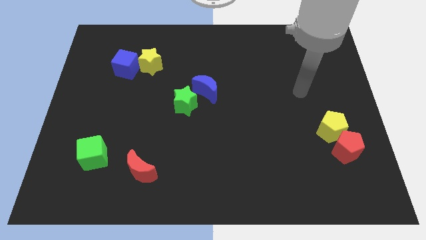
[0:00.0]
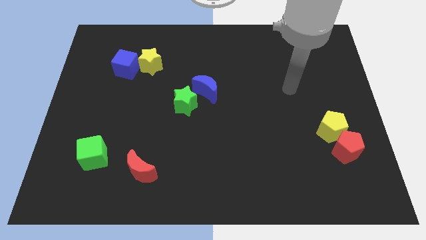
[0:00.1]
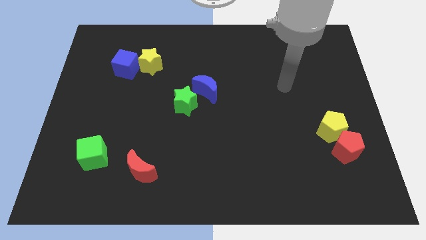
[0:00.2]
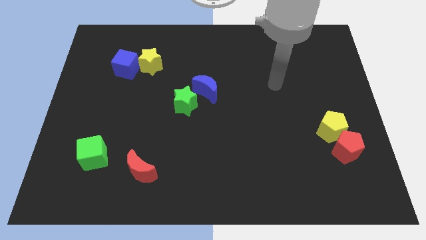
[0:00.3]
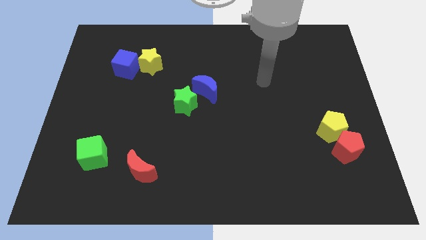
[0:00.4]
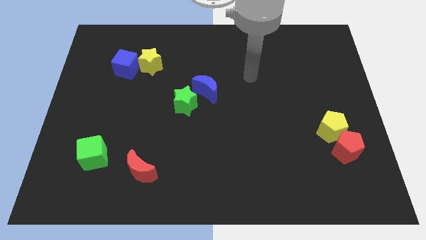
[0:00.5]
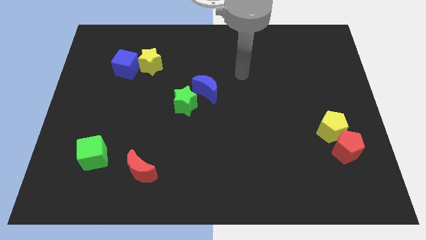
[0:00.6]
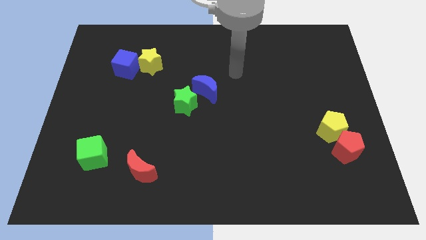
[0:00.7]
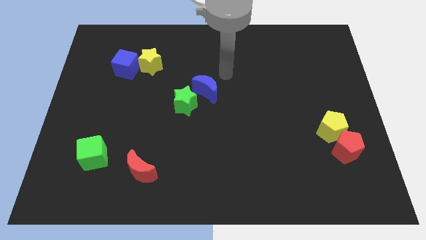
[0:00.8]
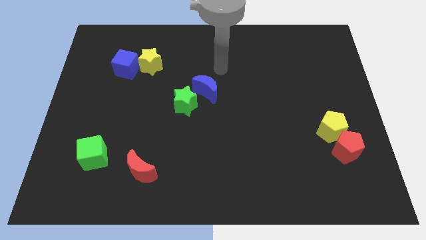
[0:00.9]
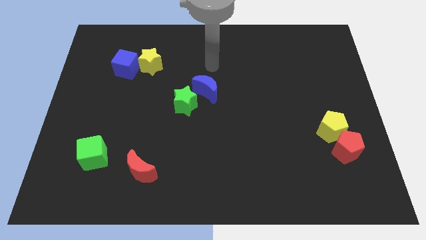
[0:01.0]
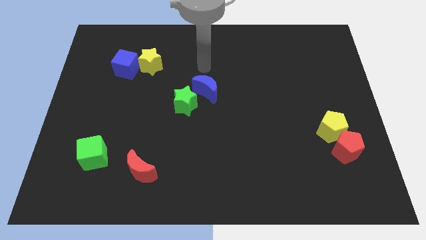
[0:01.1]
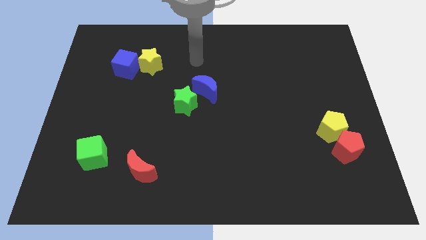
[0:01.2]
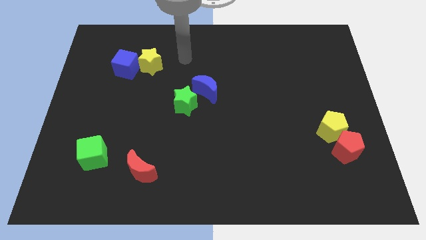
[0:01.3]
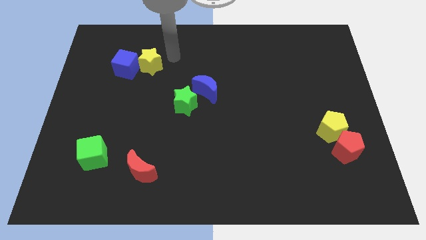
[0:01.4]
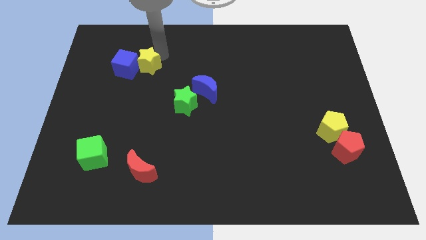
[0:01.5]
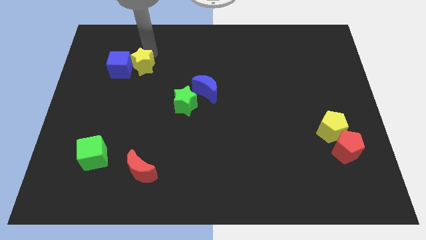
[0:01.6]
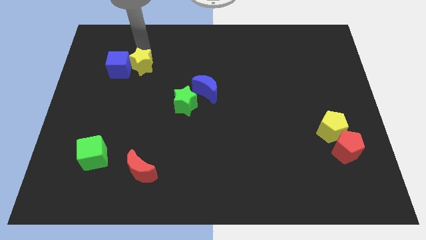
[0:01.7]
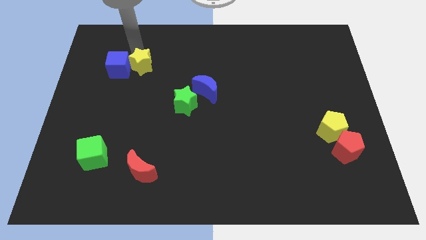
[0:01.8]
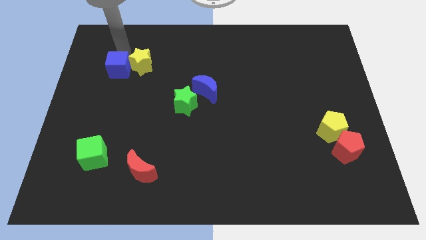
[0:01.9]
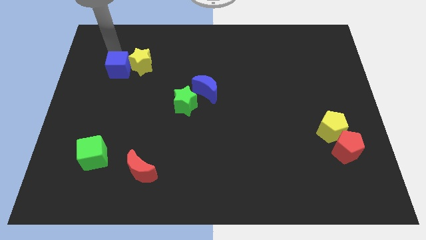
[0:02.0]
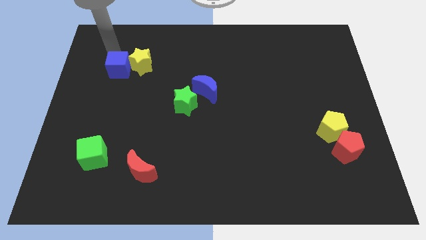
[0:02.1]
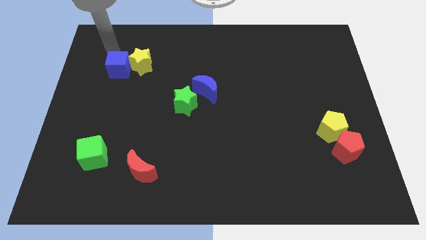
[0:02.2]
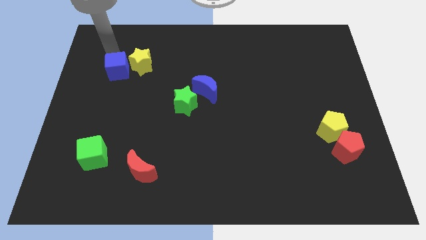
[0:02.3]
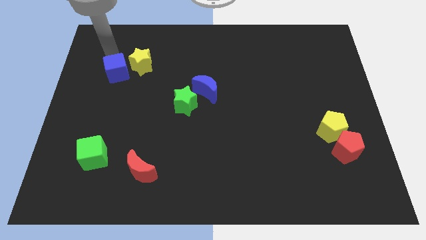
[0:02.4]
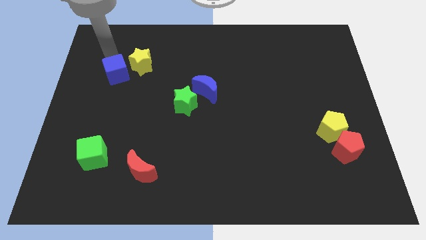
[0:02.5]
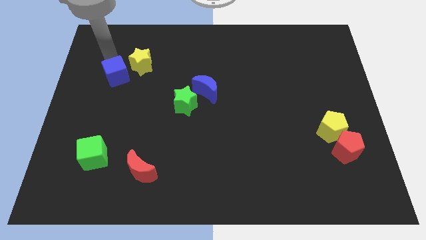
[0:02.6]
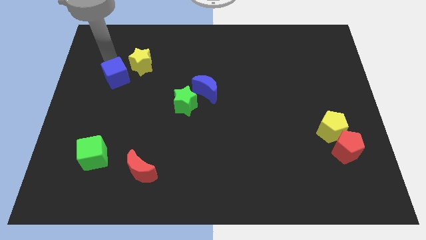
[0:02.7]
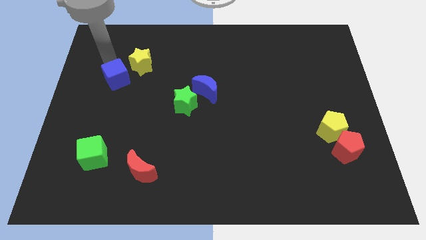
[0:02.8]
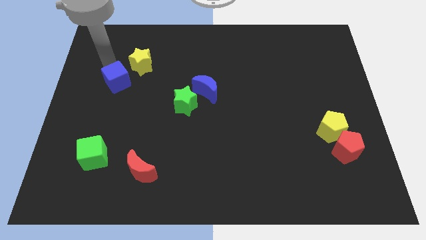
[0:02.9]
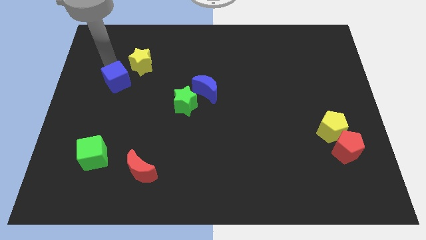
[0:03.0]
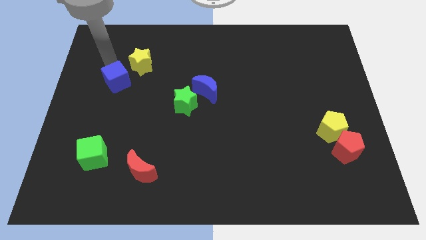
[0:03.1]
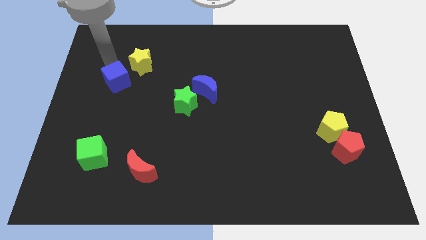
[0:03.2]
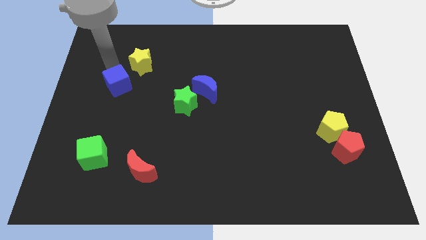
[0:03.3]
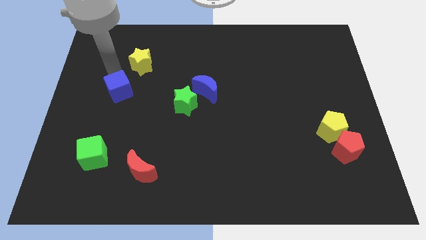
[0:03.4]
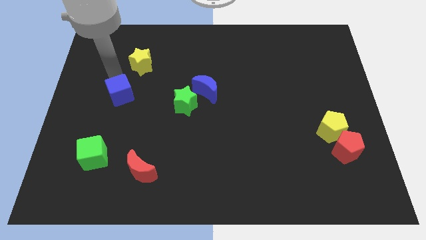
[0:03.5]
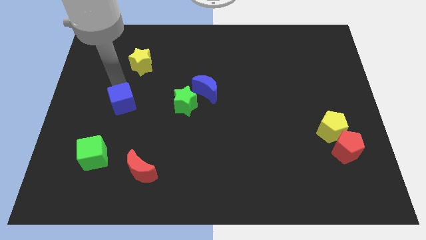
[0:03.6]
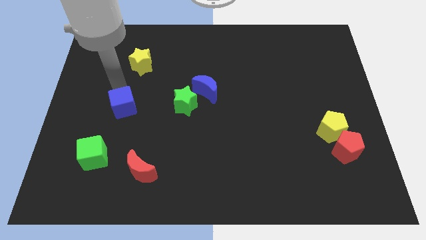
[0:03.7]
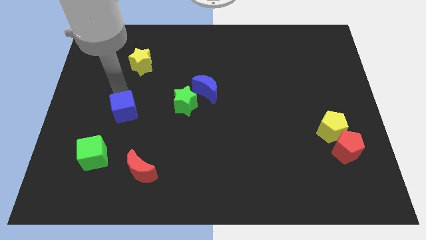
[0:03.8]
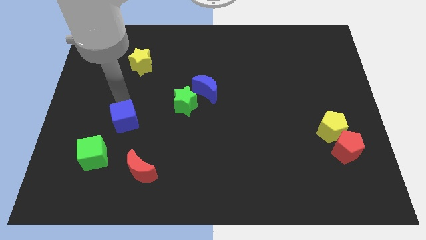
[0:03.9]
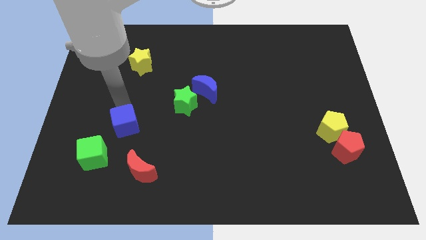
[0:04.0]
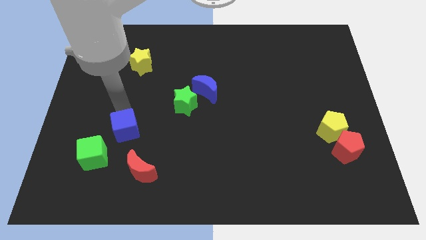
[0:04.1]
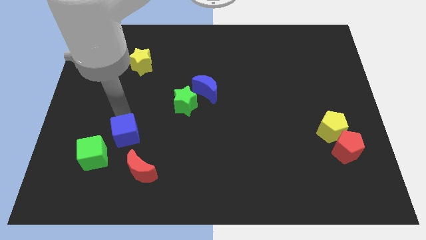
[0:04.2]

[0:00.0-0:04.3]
move the blue cube down

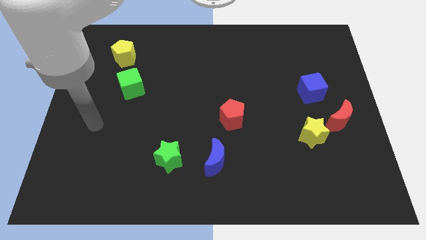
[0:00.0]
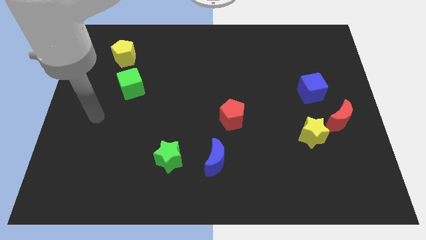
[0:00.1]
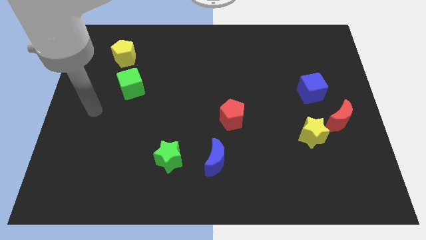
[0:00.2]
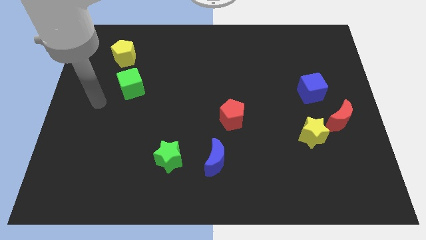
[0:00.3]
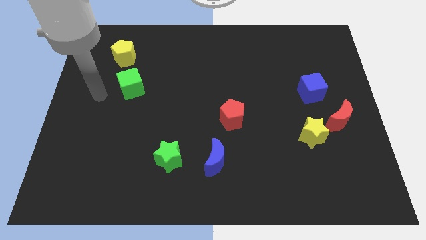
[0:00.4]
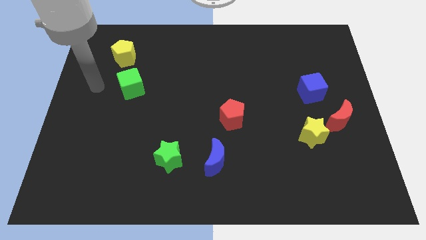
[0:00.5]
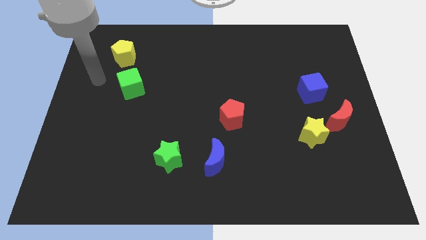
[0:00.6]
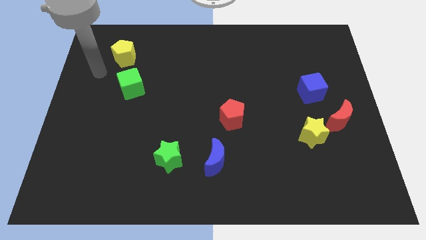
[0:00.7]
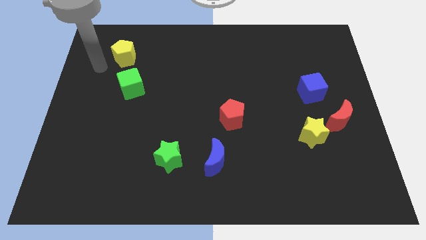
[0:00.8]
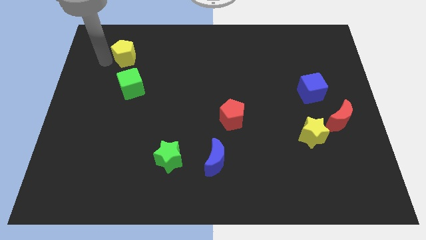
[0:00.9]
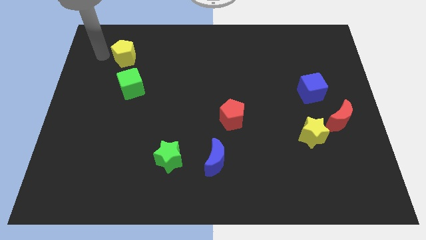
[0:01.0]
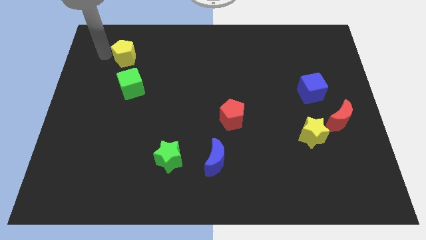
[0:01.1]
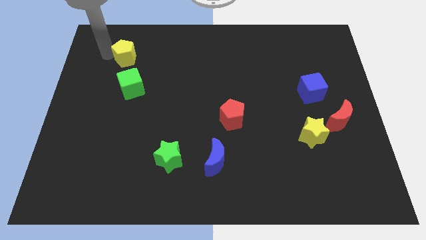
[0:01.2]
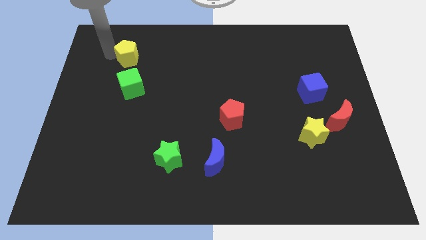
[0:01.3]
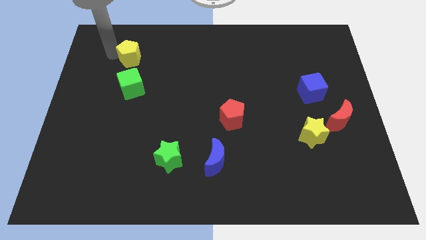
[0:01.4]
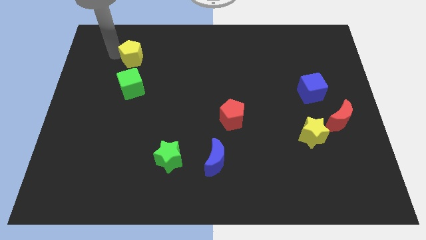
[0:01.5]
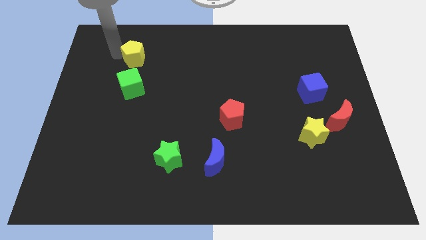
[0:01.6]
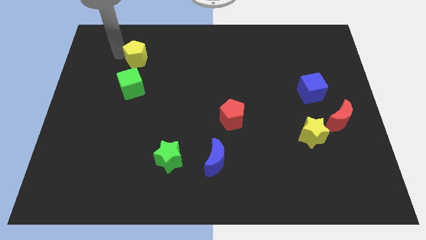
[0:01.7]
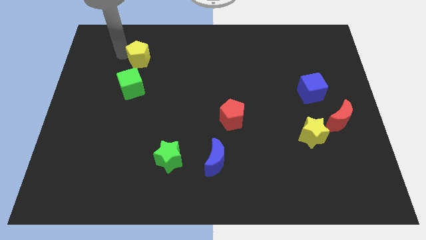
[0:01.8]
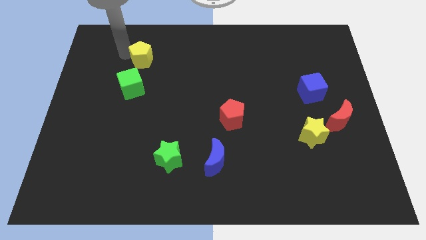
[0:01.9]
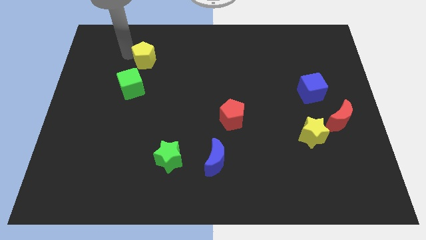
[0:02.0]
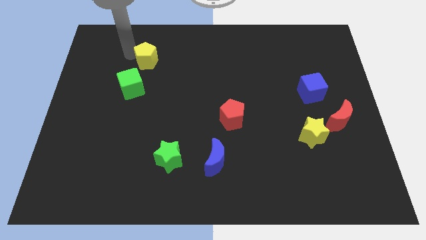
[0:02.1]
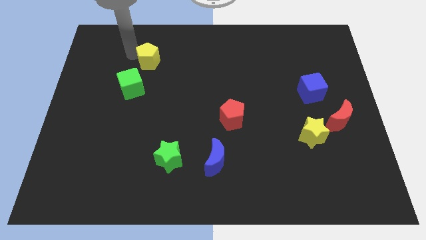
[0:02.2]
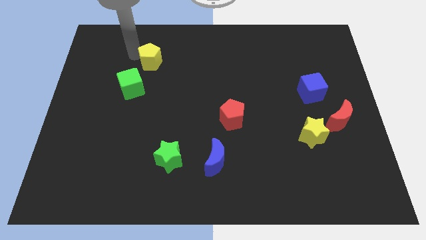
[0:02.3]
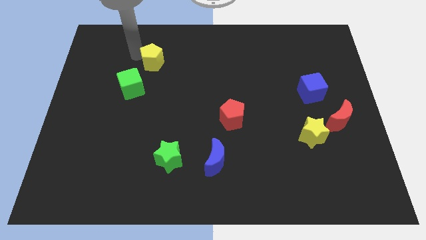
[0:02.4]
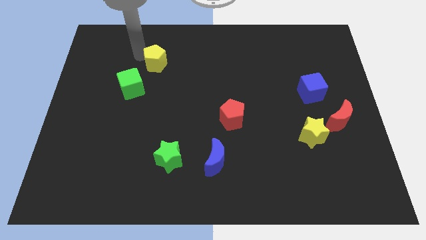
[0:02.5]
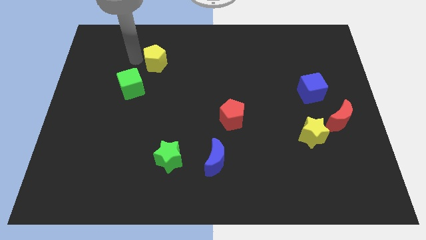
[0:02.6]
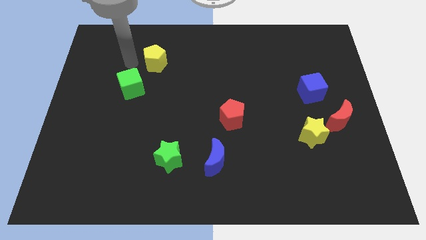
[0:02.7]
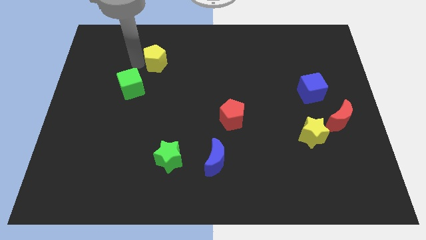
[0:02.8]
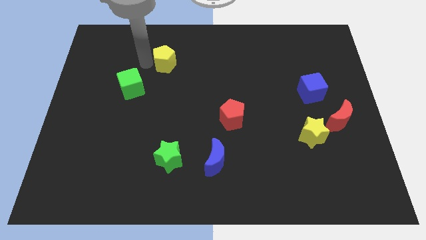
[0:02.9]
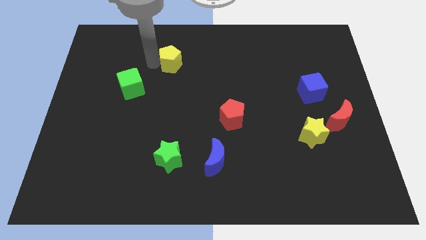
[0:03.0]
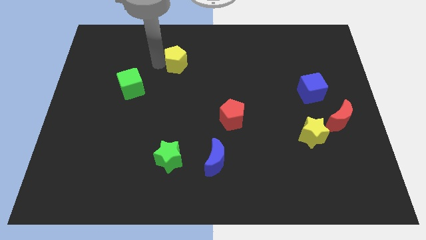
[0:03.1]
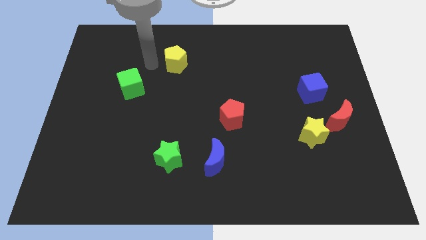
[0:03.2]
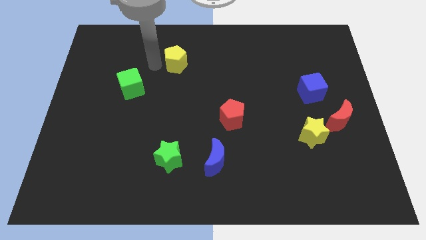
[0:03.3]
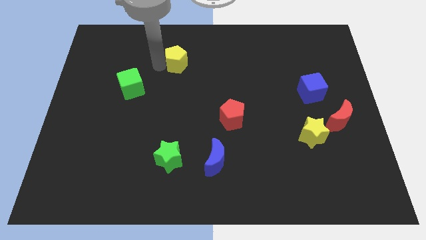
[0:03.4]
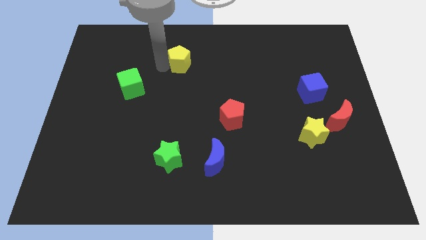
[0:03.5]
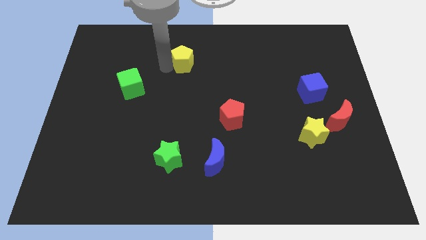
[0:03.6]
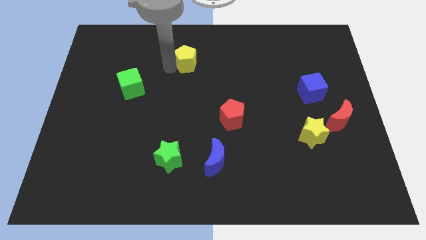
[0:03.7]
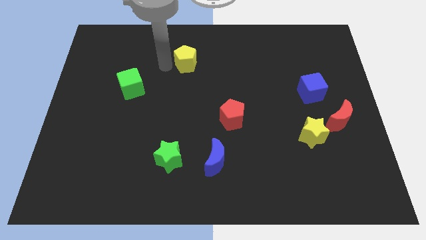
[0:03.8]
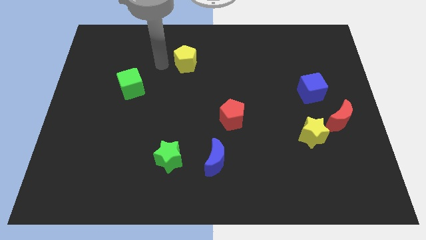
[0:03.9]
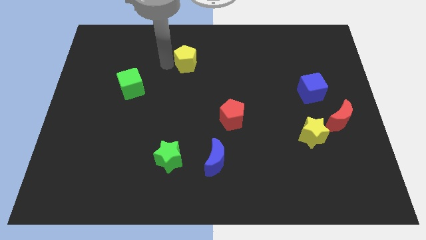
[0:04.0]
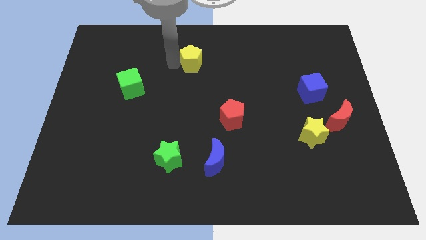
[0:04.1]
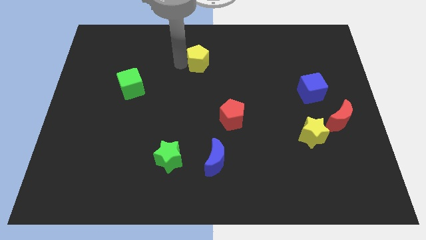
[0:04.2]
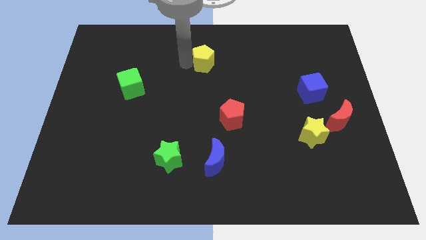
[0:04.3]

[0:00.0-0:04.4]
push the yellow pentagon to the right
